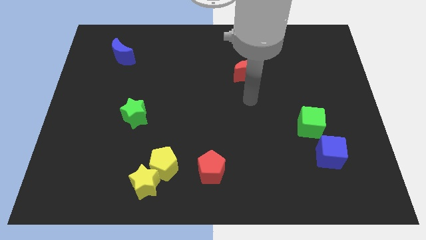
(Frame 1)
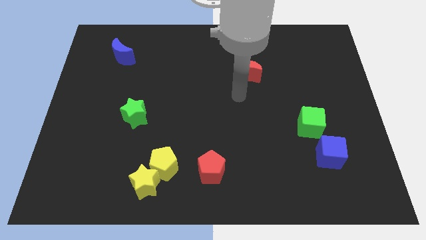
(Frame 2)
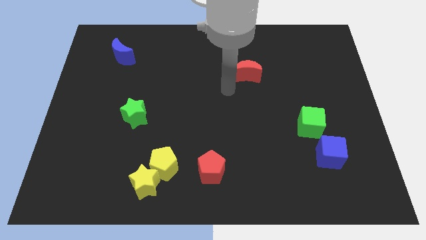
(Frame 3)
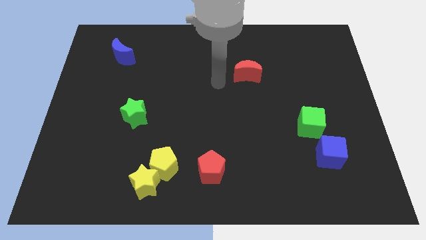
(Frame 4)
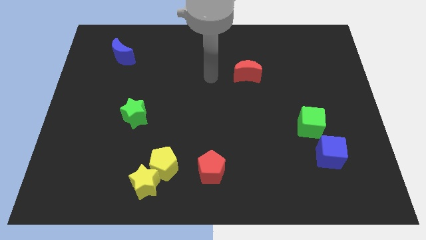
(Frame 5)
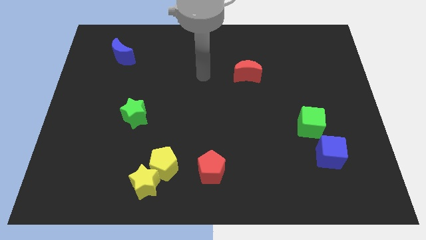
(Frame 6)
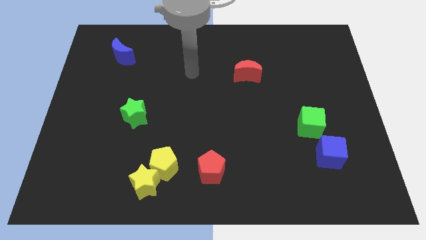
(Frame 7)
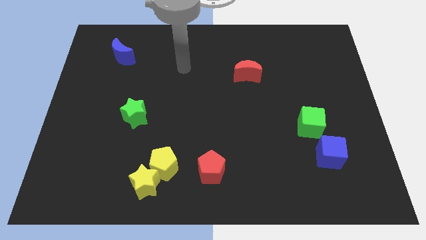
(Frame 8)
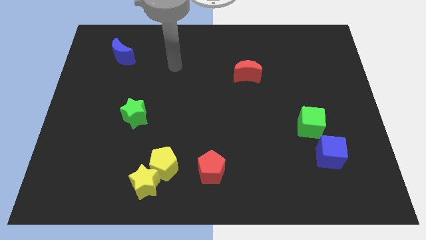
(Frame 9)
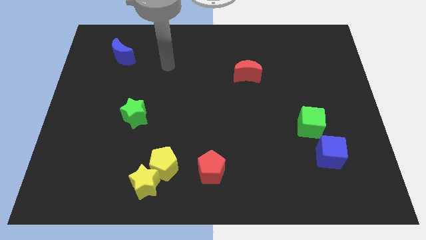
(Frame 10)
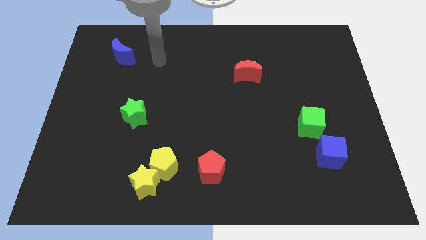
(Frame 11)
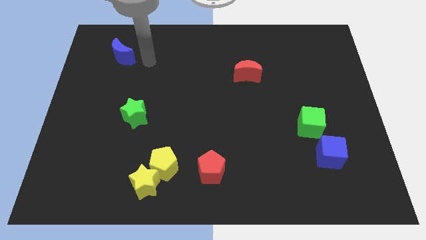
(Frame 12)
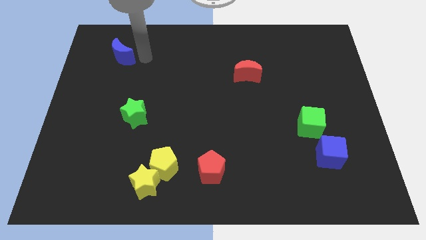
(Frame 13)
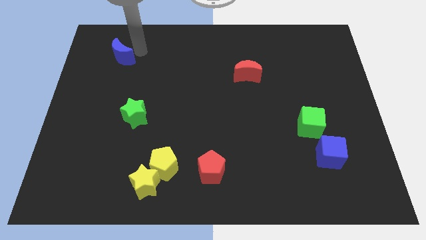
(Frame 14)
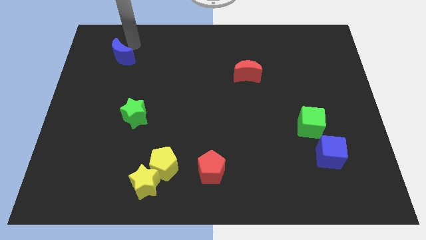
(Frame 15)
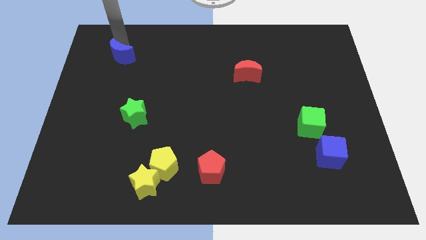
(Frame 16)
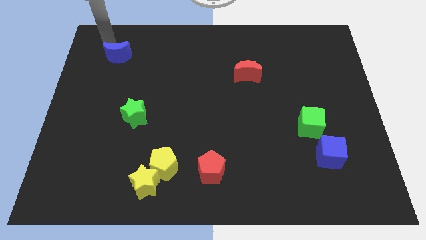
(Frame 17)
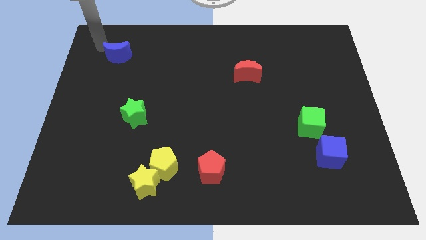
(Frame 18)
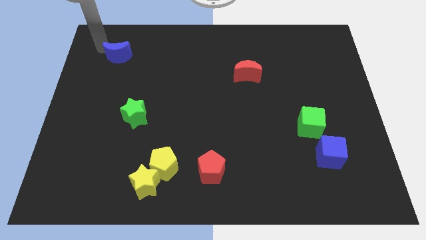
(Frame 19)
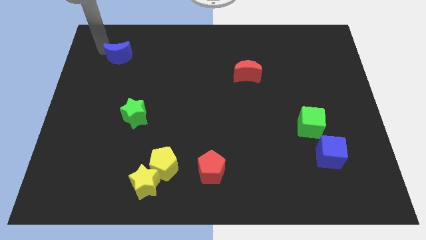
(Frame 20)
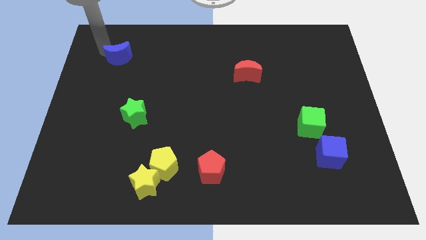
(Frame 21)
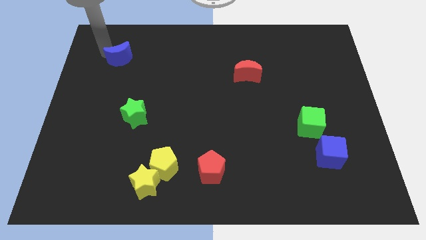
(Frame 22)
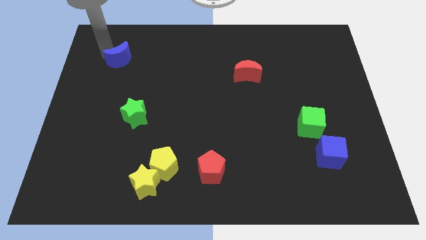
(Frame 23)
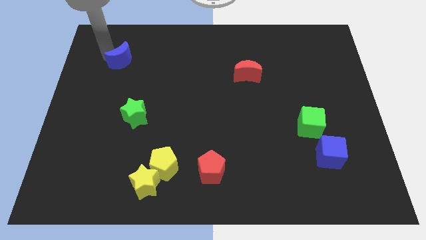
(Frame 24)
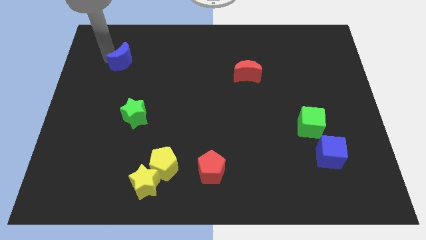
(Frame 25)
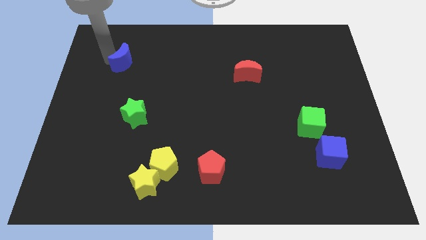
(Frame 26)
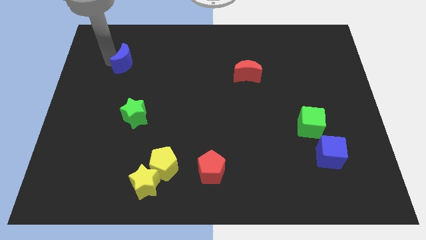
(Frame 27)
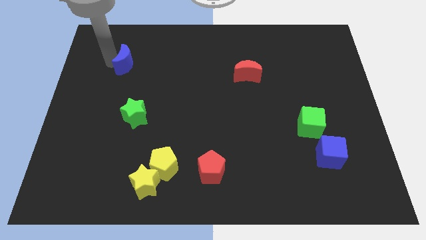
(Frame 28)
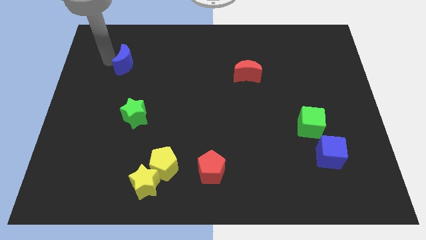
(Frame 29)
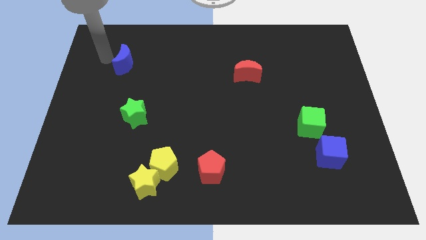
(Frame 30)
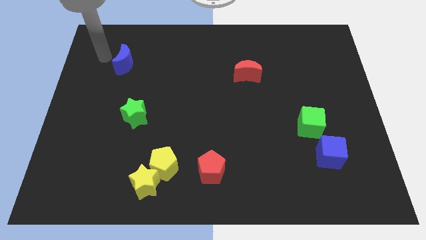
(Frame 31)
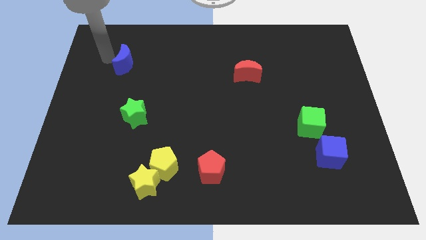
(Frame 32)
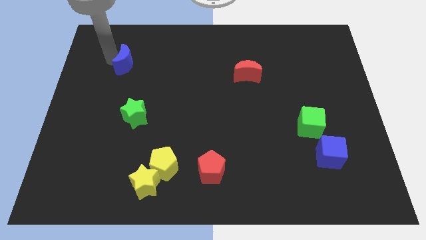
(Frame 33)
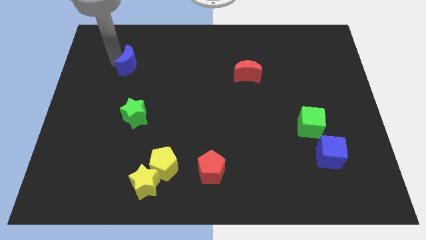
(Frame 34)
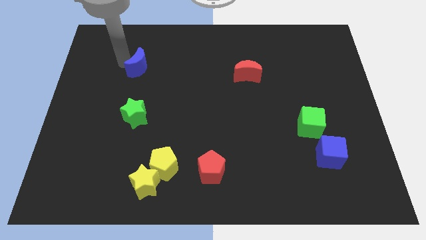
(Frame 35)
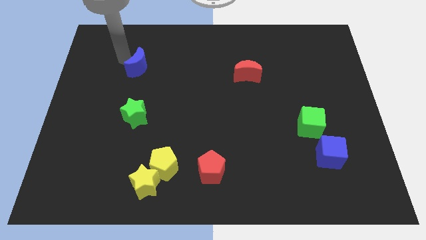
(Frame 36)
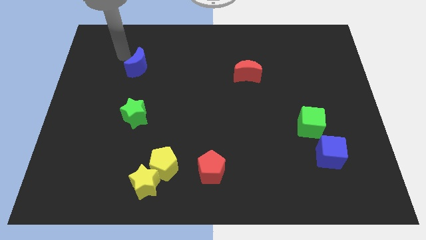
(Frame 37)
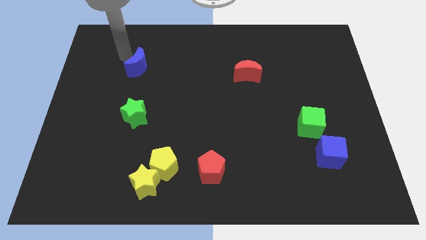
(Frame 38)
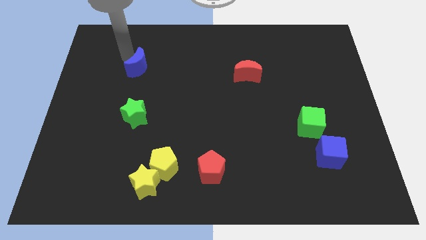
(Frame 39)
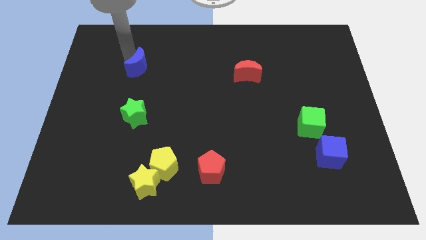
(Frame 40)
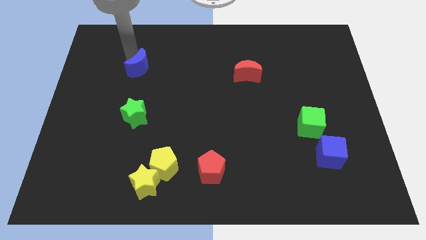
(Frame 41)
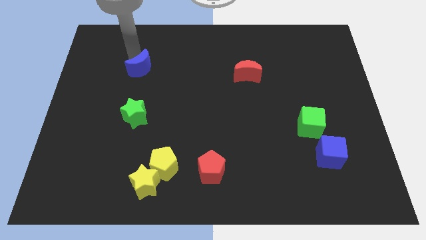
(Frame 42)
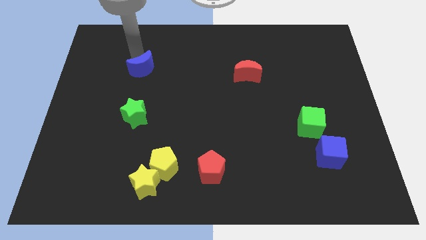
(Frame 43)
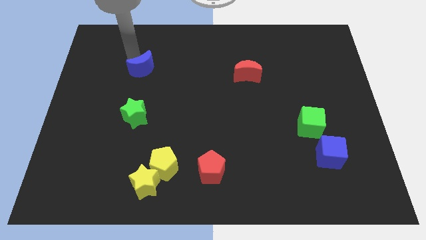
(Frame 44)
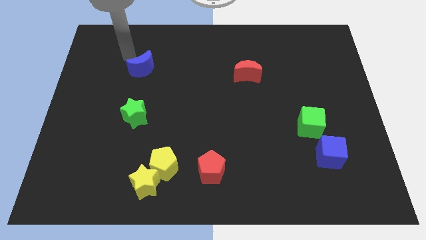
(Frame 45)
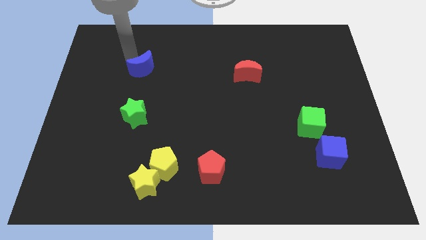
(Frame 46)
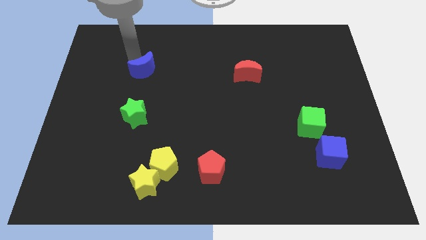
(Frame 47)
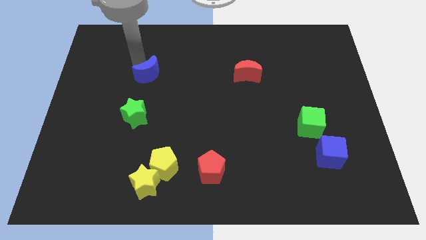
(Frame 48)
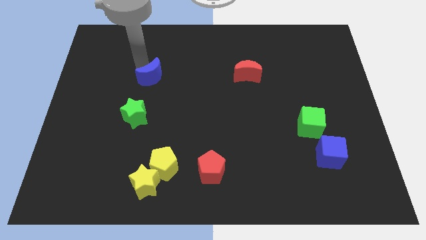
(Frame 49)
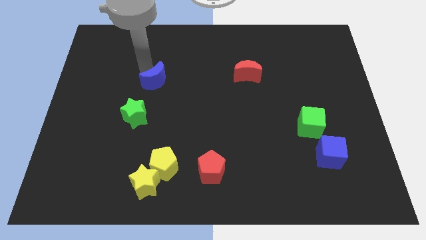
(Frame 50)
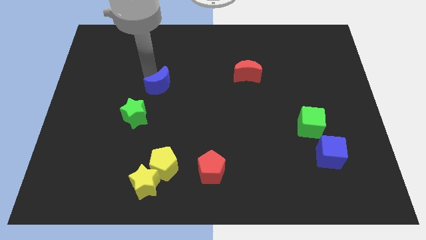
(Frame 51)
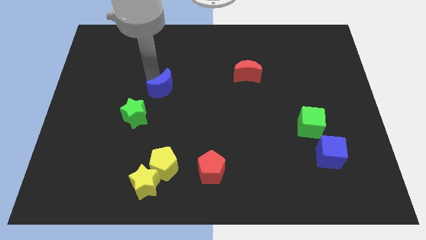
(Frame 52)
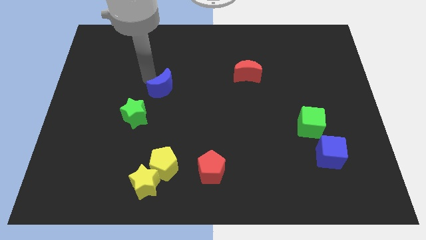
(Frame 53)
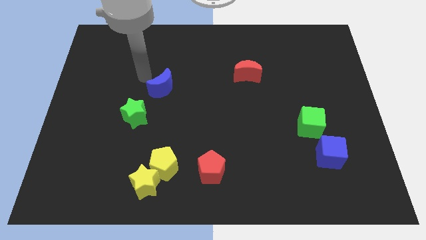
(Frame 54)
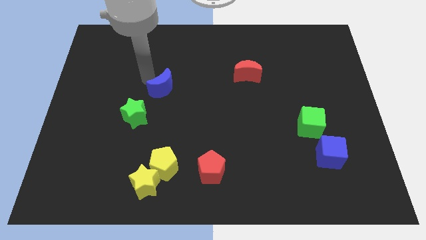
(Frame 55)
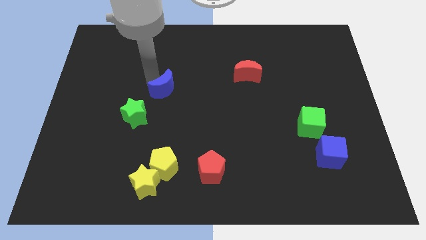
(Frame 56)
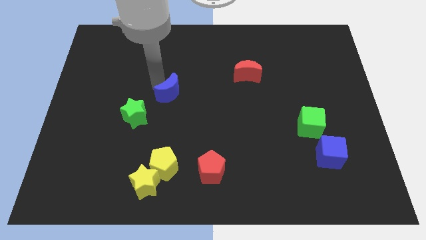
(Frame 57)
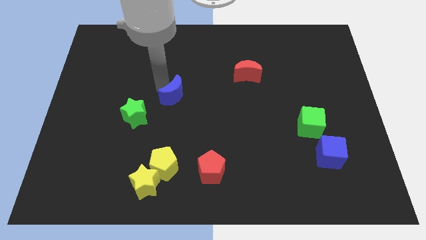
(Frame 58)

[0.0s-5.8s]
slide the blue moon down and right

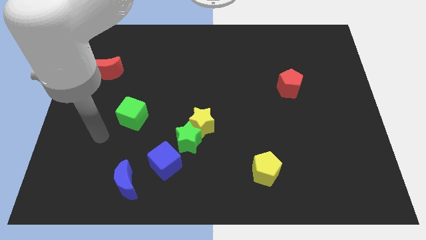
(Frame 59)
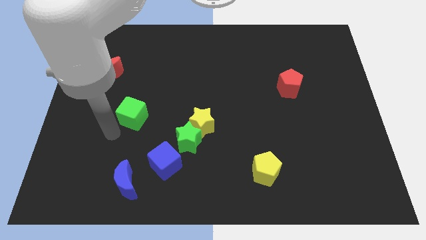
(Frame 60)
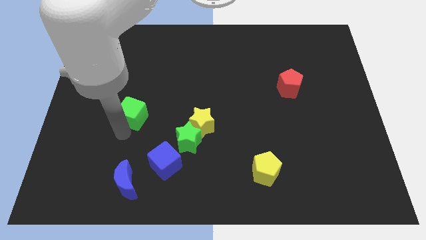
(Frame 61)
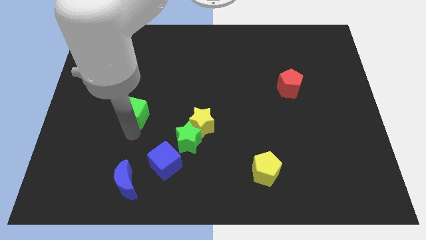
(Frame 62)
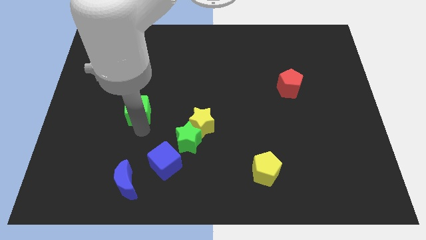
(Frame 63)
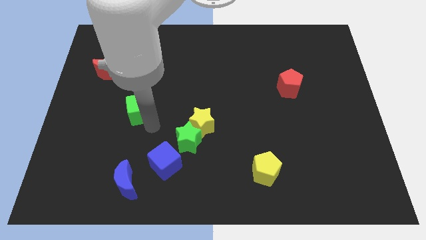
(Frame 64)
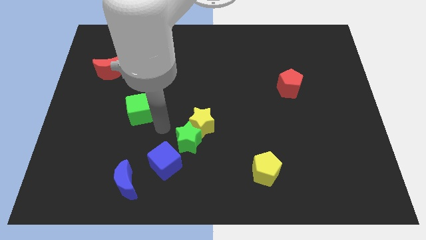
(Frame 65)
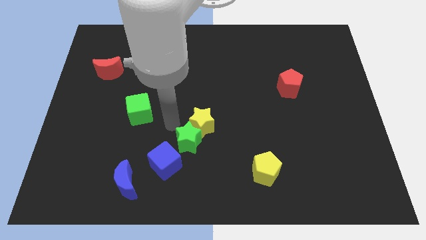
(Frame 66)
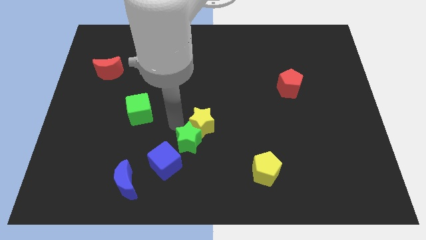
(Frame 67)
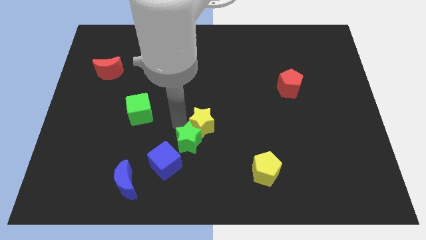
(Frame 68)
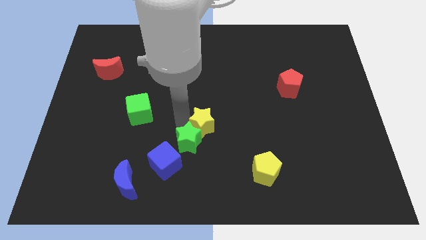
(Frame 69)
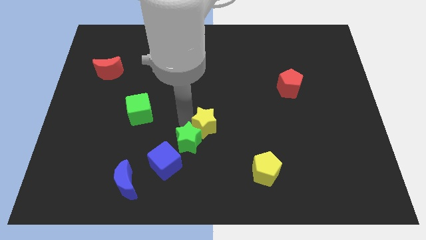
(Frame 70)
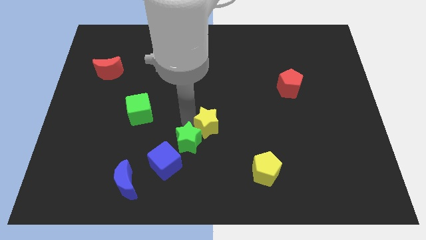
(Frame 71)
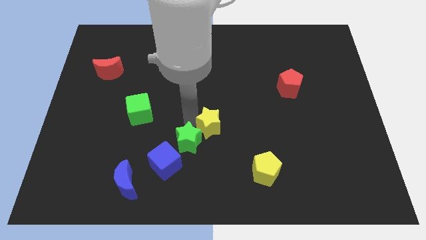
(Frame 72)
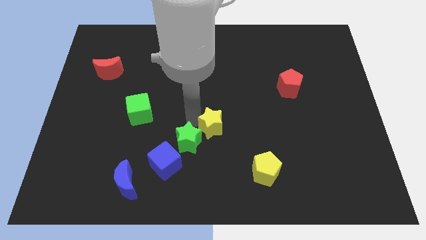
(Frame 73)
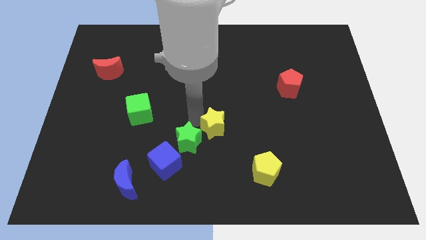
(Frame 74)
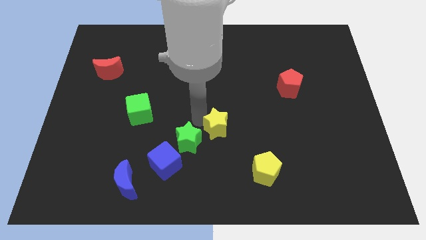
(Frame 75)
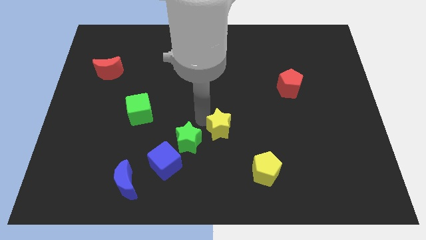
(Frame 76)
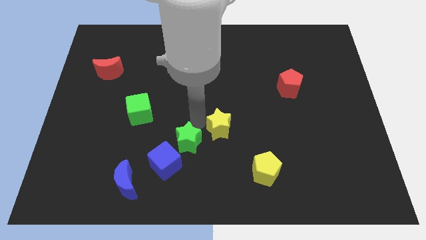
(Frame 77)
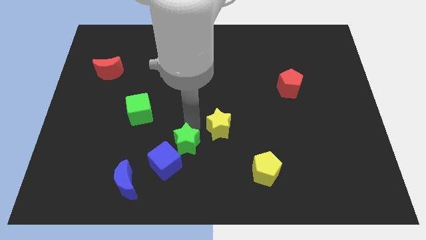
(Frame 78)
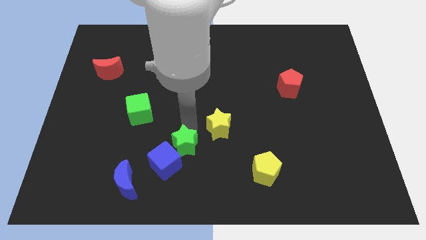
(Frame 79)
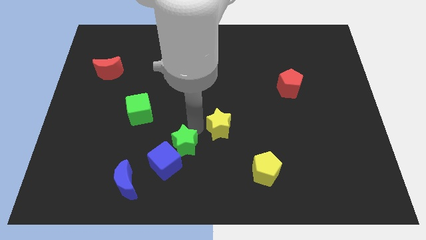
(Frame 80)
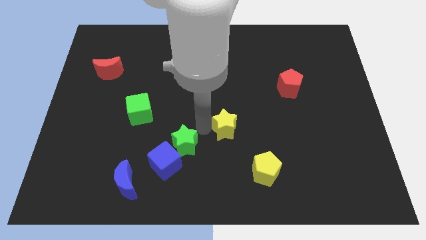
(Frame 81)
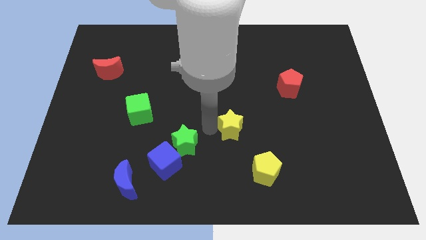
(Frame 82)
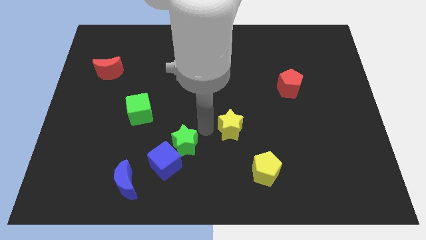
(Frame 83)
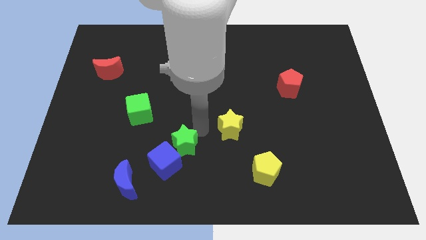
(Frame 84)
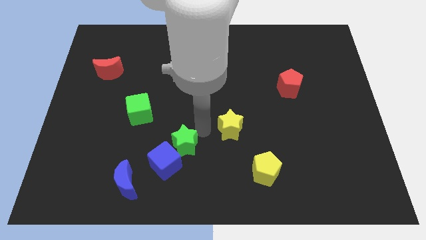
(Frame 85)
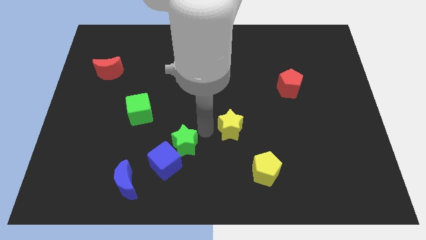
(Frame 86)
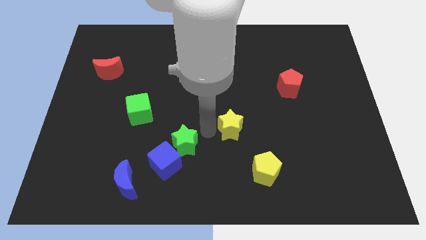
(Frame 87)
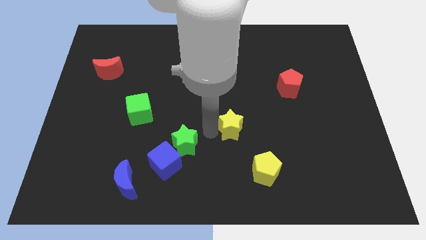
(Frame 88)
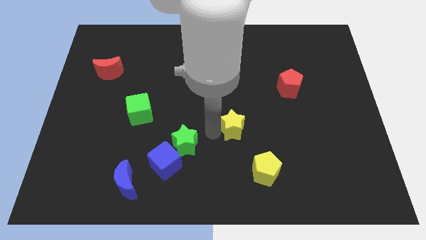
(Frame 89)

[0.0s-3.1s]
slightly push the yellow star right
